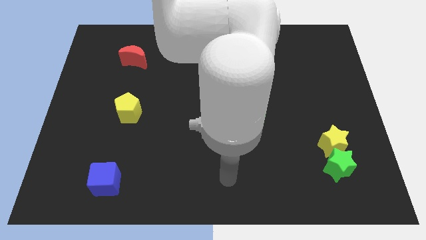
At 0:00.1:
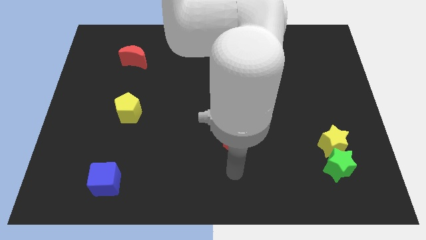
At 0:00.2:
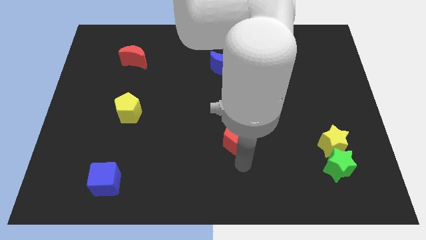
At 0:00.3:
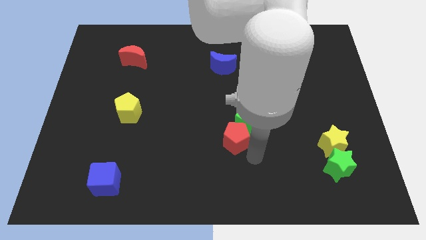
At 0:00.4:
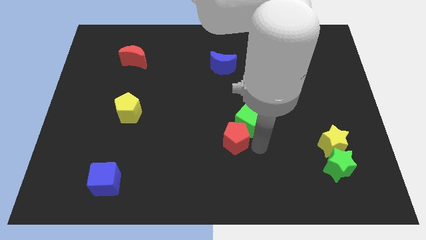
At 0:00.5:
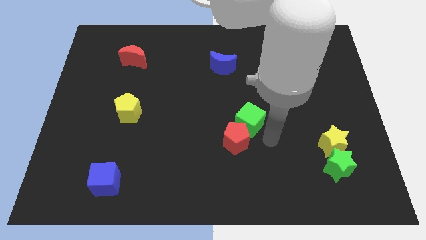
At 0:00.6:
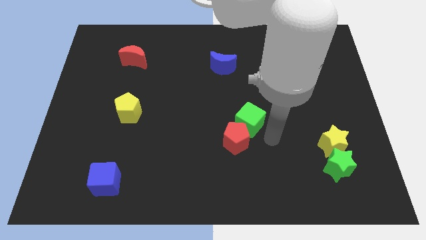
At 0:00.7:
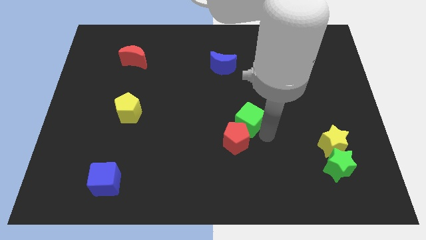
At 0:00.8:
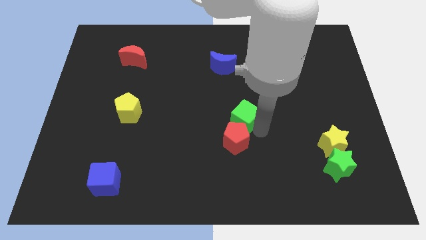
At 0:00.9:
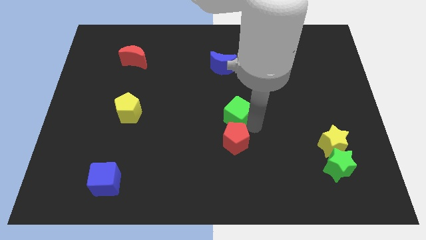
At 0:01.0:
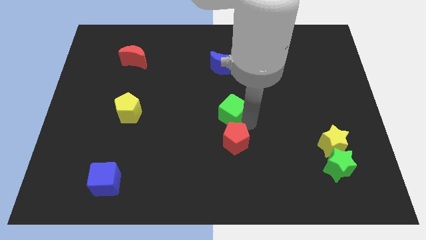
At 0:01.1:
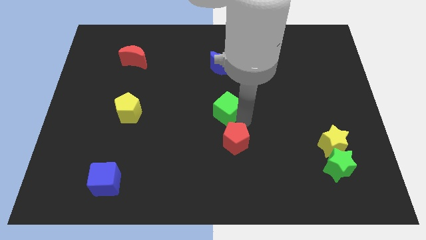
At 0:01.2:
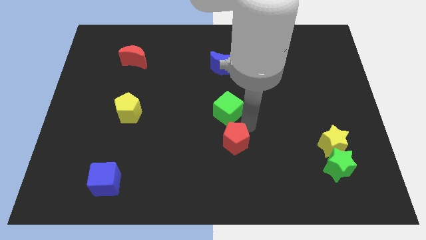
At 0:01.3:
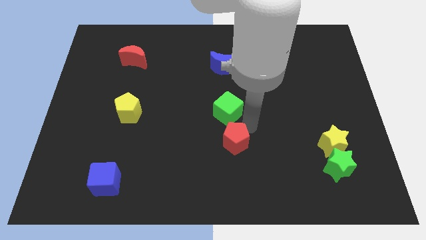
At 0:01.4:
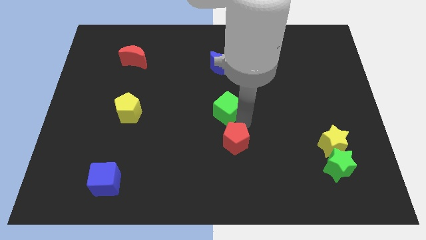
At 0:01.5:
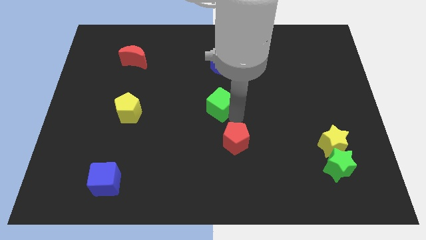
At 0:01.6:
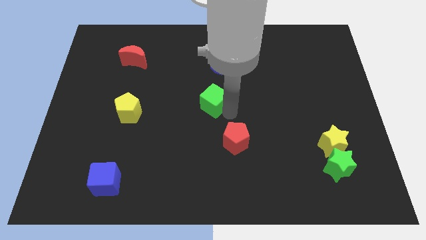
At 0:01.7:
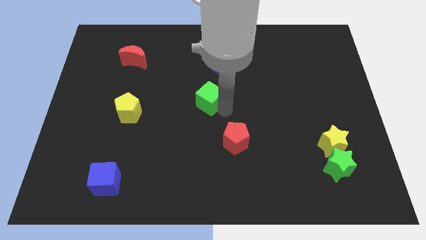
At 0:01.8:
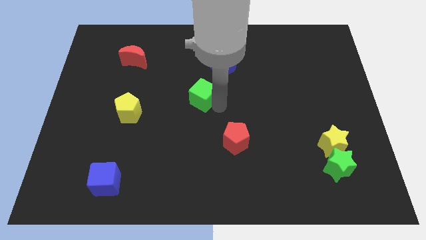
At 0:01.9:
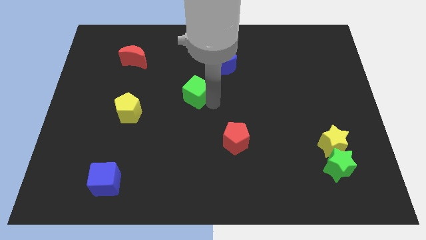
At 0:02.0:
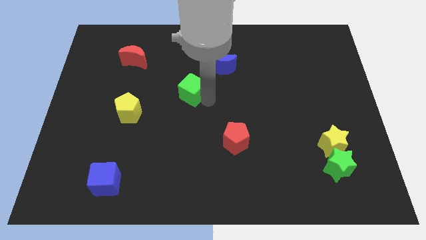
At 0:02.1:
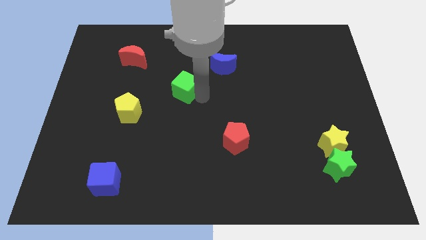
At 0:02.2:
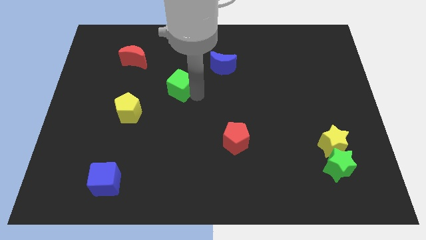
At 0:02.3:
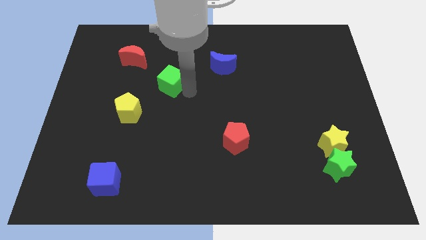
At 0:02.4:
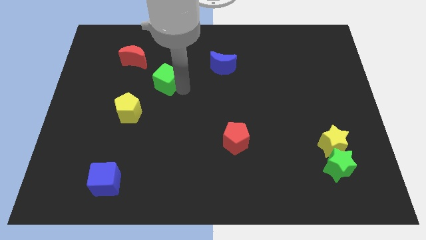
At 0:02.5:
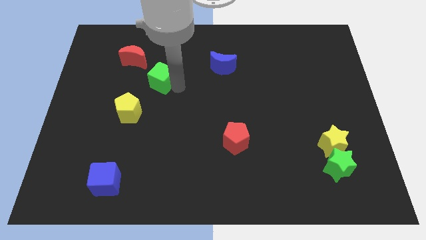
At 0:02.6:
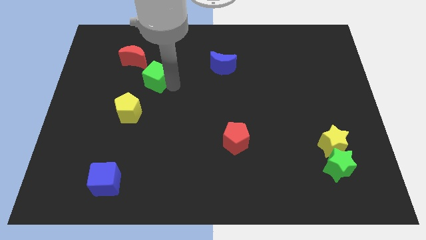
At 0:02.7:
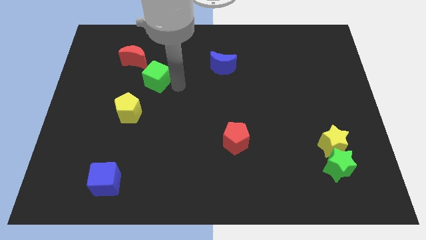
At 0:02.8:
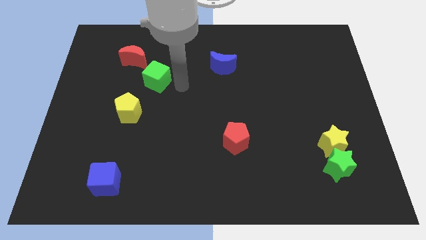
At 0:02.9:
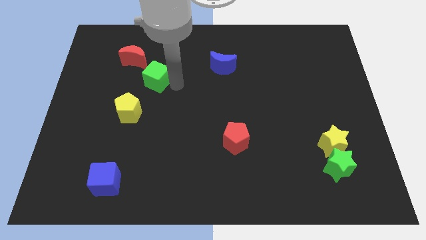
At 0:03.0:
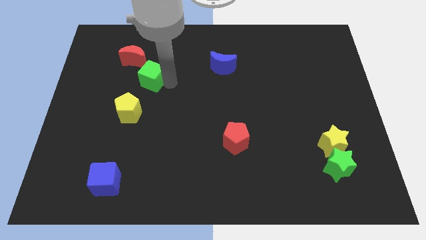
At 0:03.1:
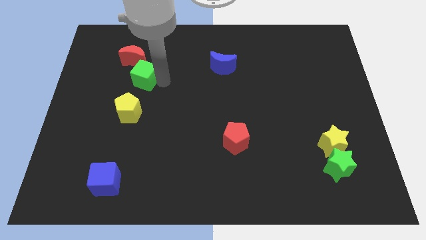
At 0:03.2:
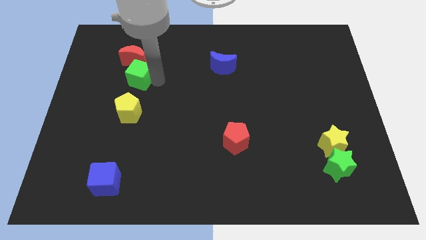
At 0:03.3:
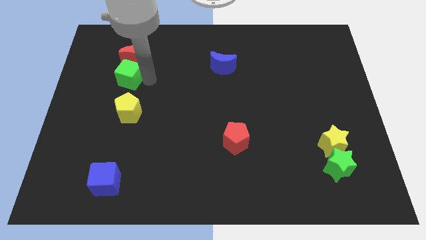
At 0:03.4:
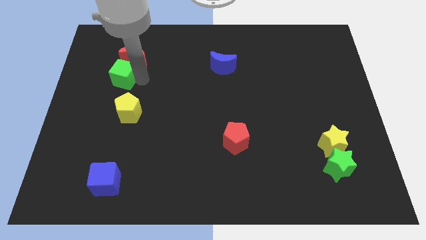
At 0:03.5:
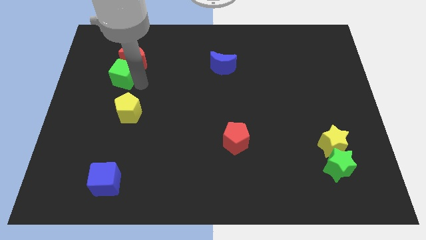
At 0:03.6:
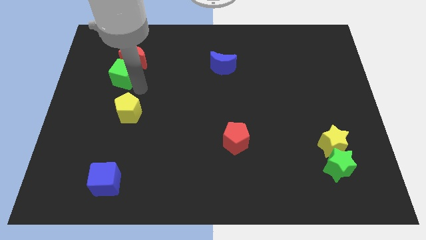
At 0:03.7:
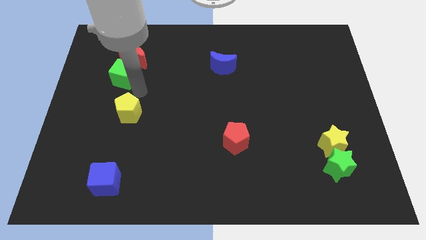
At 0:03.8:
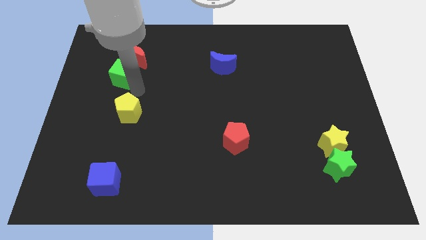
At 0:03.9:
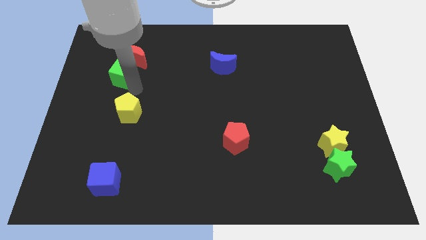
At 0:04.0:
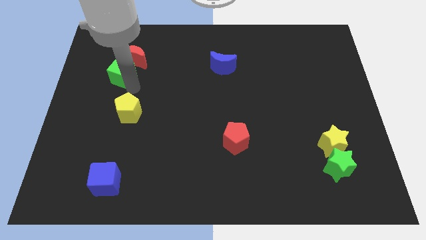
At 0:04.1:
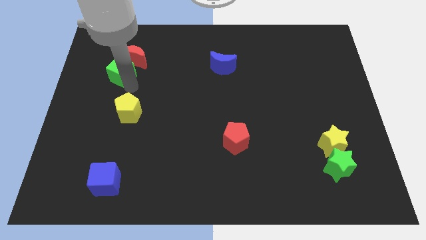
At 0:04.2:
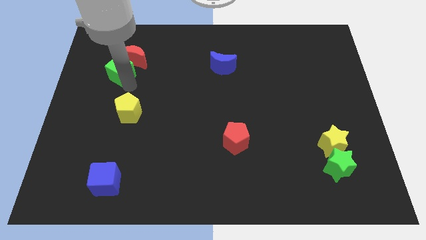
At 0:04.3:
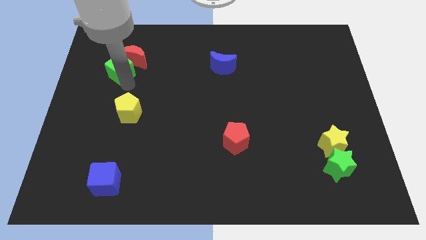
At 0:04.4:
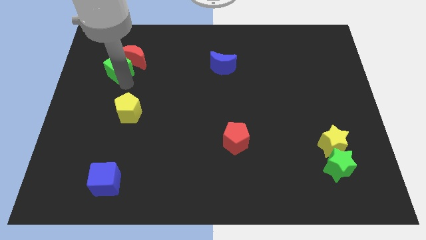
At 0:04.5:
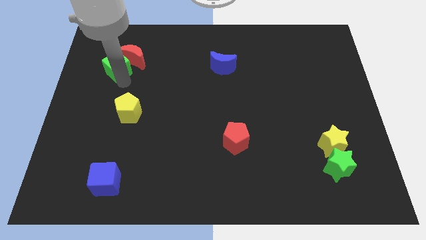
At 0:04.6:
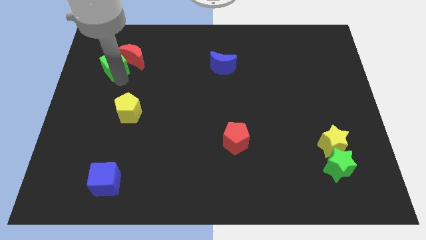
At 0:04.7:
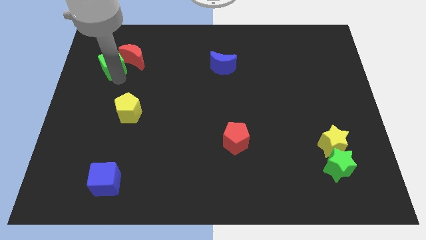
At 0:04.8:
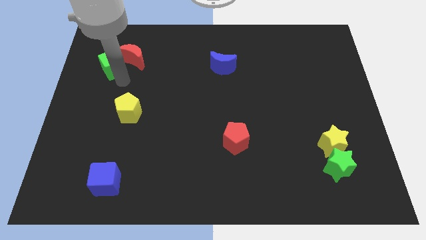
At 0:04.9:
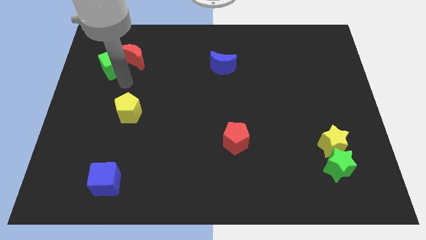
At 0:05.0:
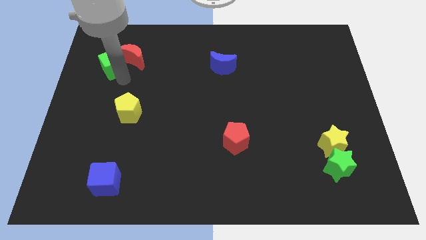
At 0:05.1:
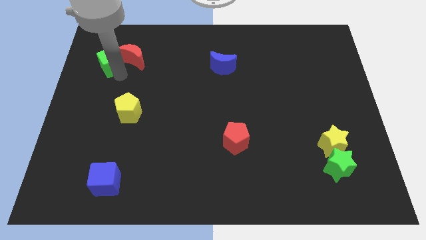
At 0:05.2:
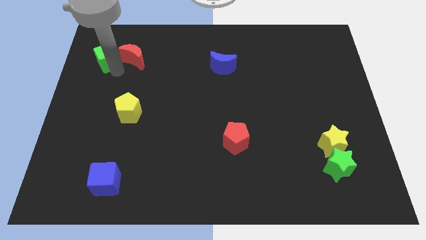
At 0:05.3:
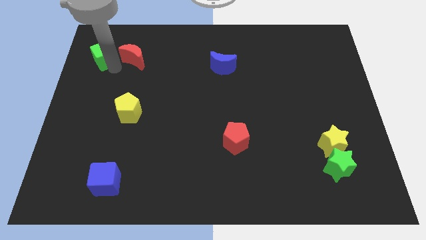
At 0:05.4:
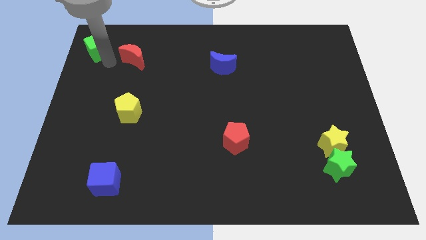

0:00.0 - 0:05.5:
put the green cube to the top left
